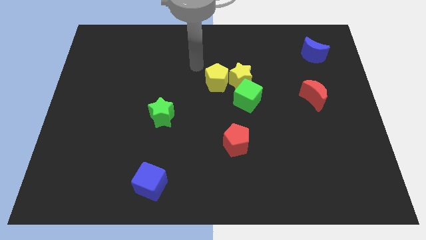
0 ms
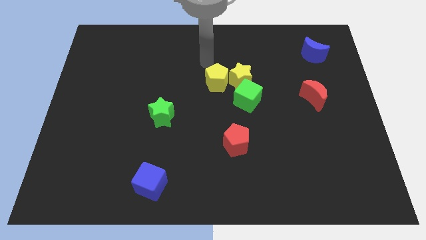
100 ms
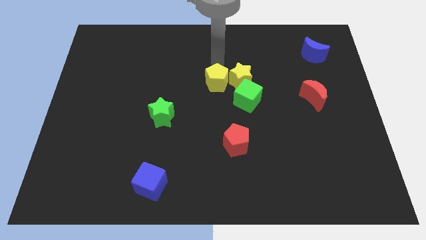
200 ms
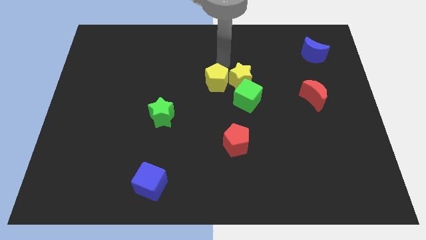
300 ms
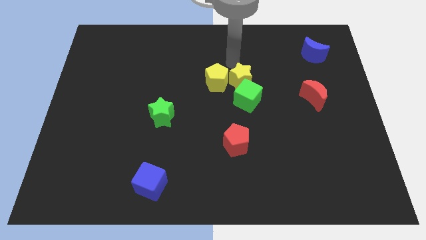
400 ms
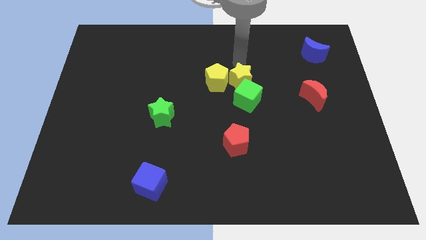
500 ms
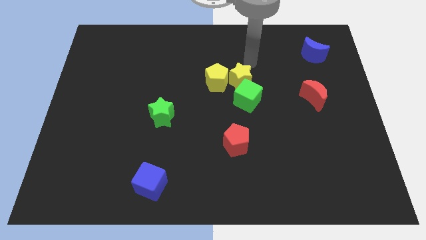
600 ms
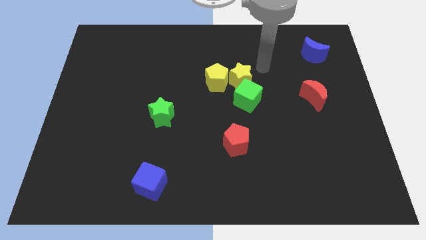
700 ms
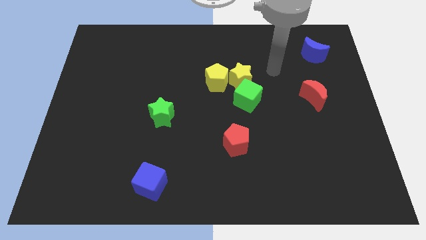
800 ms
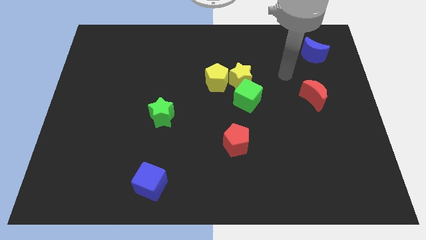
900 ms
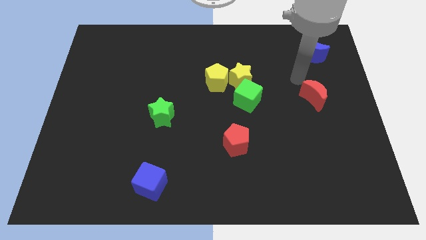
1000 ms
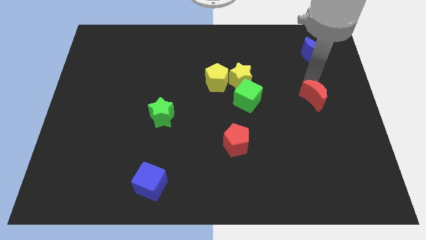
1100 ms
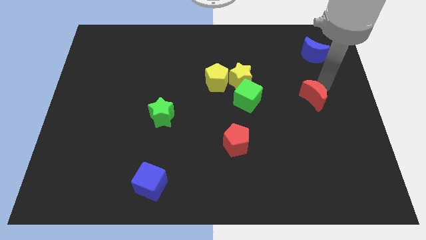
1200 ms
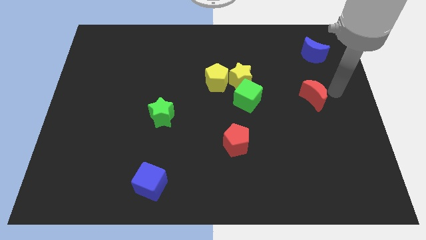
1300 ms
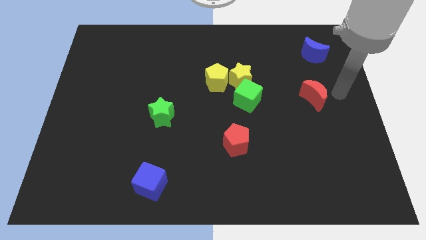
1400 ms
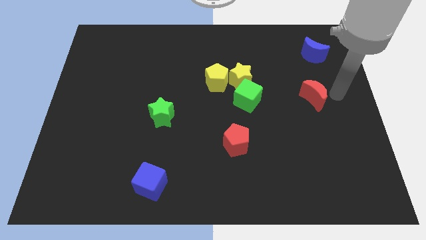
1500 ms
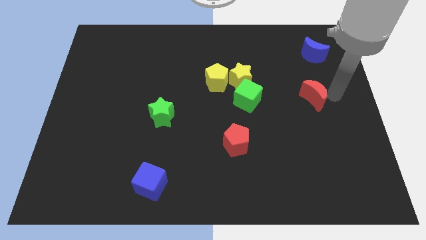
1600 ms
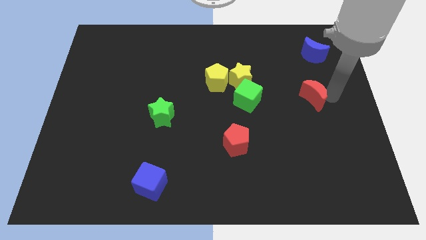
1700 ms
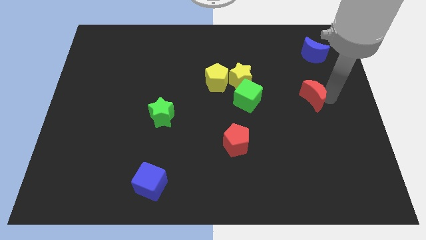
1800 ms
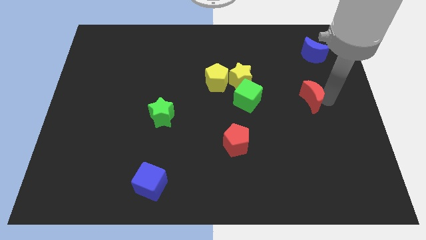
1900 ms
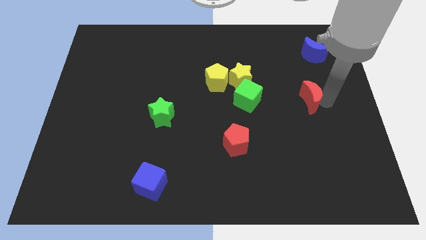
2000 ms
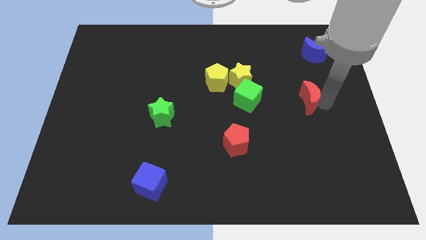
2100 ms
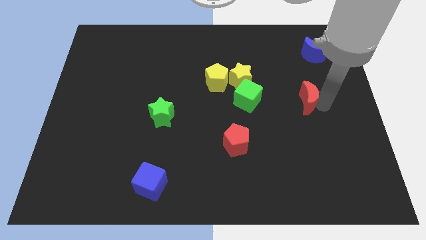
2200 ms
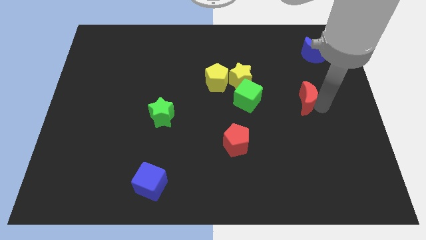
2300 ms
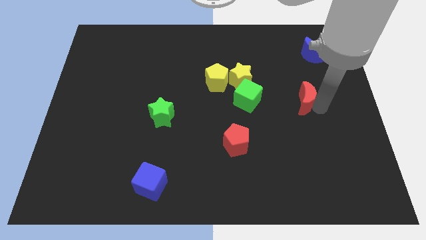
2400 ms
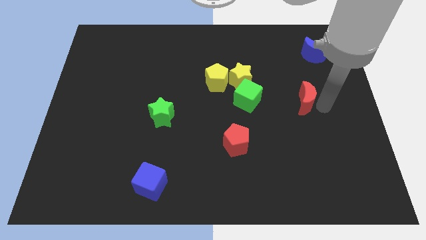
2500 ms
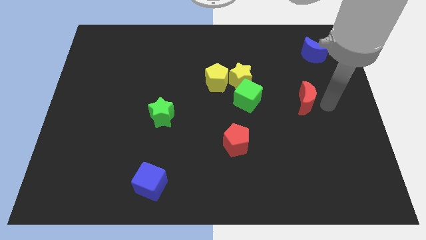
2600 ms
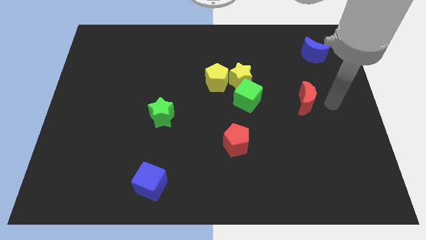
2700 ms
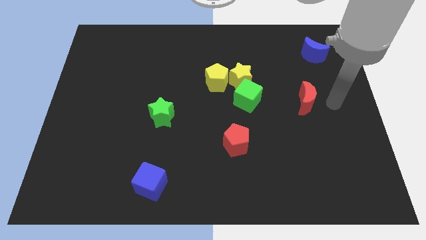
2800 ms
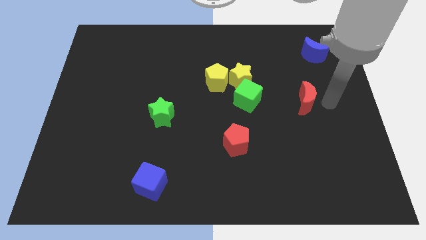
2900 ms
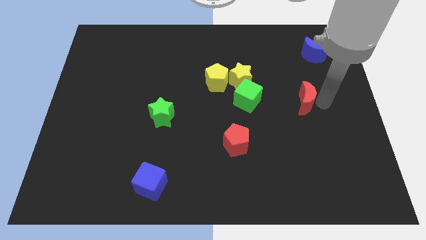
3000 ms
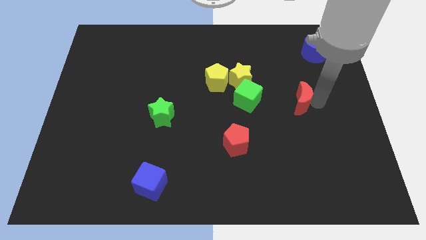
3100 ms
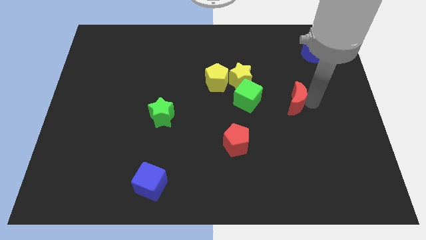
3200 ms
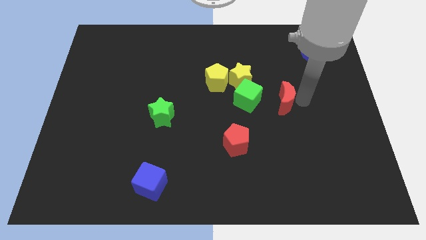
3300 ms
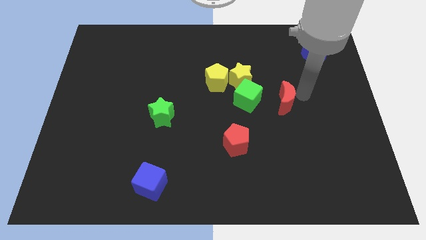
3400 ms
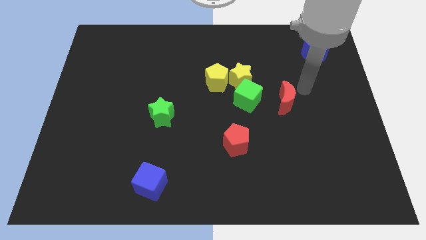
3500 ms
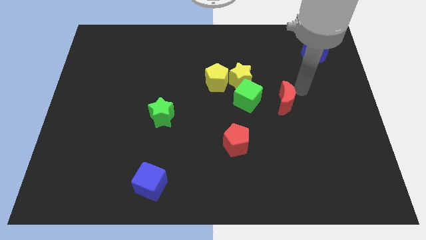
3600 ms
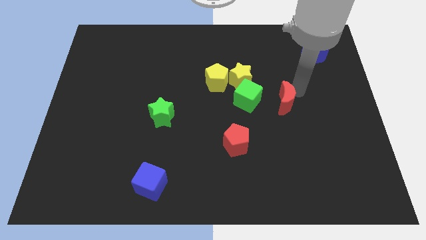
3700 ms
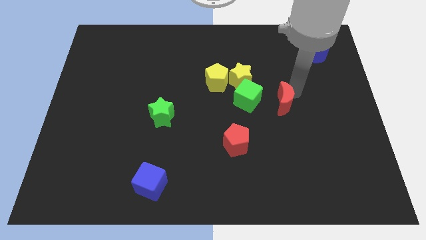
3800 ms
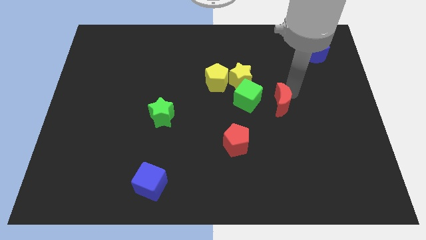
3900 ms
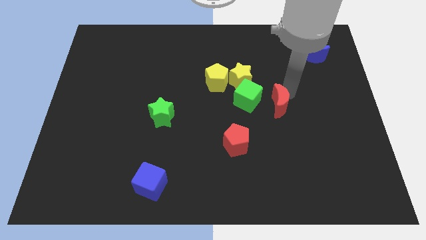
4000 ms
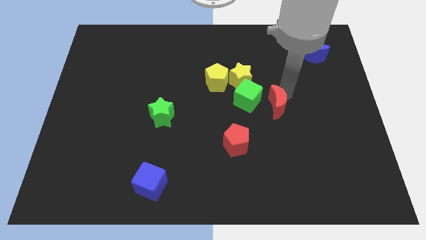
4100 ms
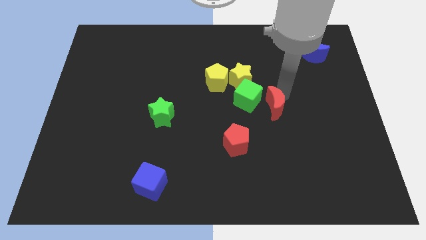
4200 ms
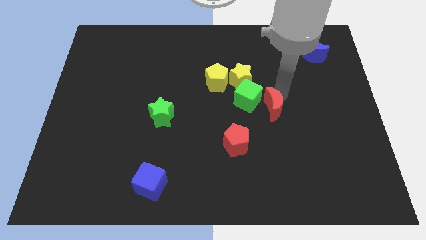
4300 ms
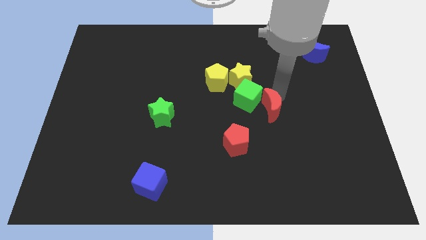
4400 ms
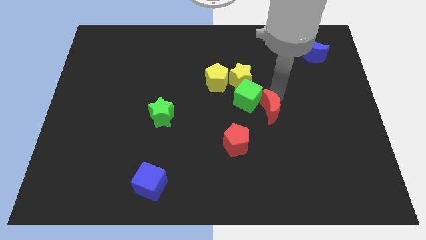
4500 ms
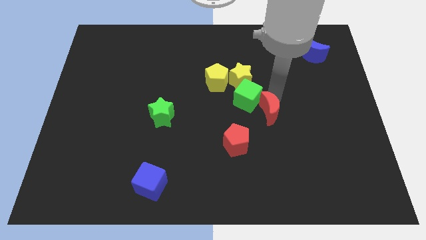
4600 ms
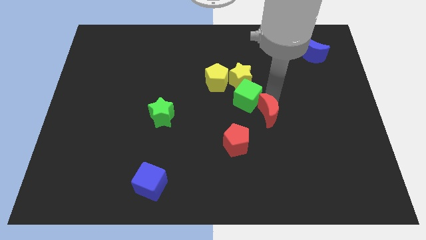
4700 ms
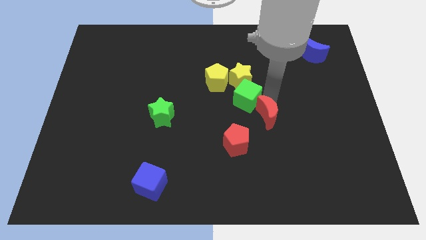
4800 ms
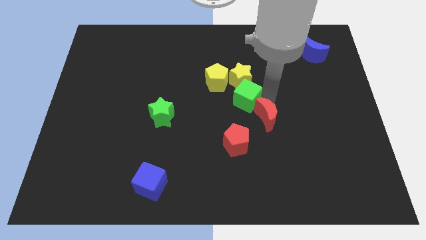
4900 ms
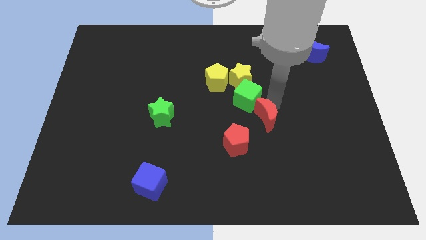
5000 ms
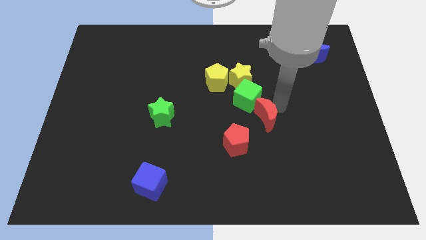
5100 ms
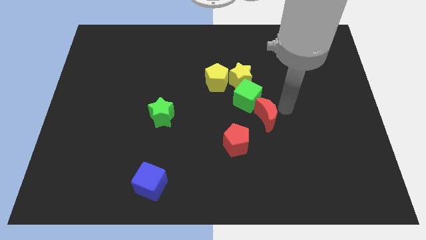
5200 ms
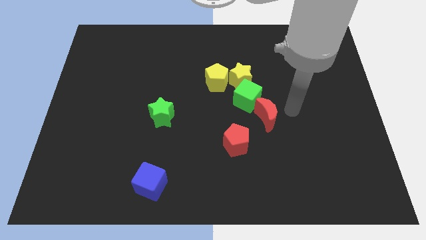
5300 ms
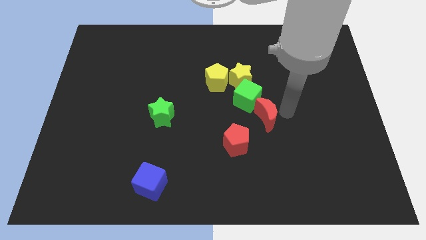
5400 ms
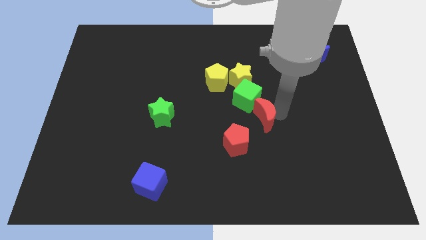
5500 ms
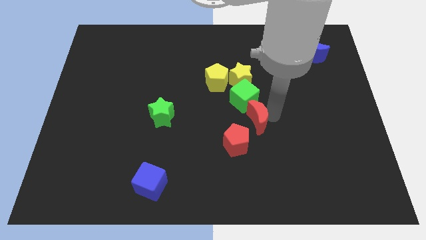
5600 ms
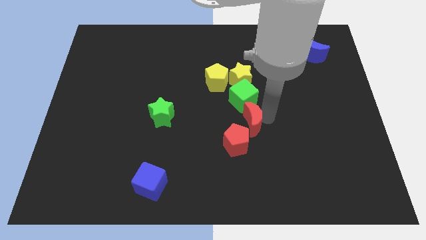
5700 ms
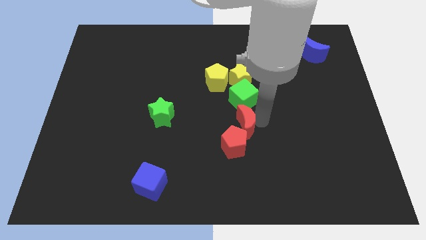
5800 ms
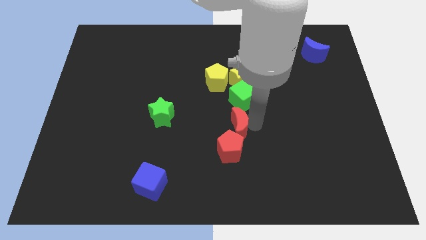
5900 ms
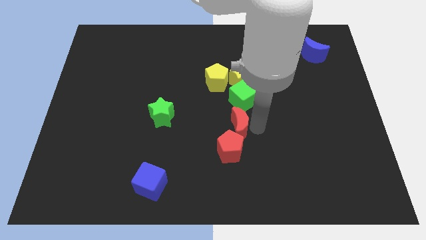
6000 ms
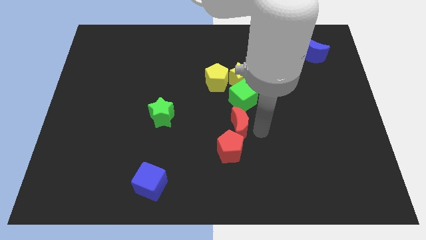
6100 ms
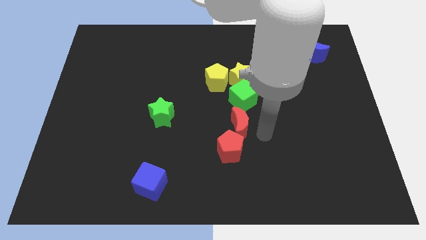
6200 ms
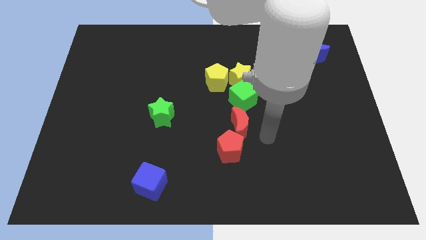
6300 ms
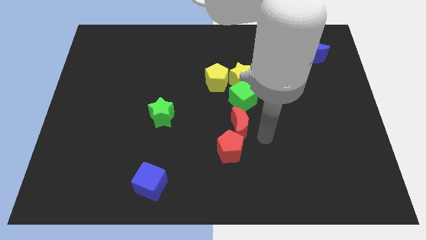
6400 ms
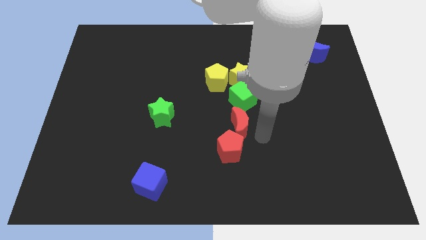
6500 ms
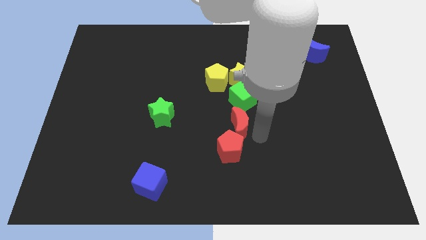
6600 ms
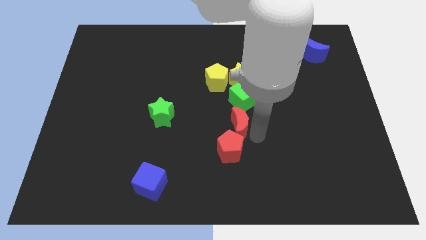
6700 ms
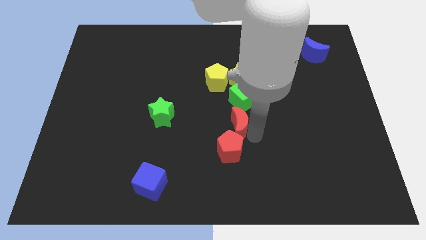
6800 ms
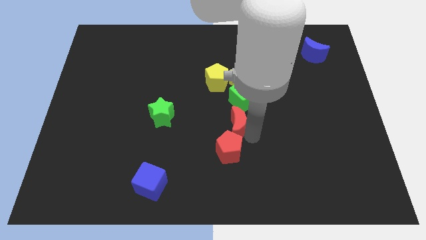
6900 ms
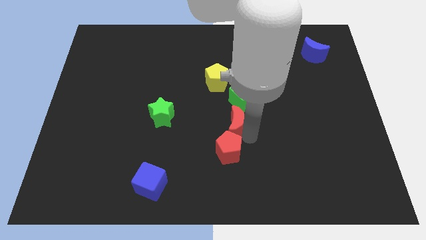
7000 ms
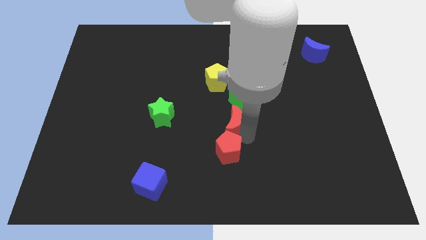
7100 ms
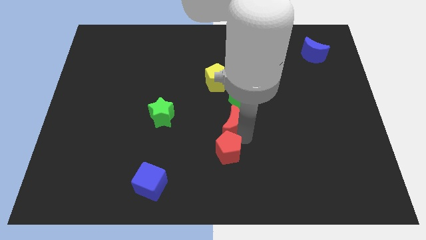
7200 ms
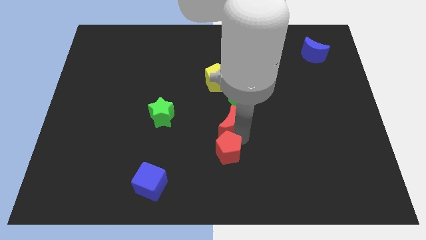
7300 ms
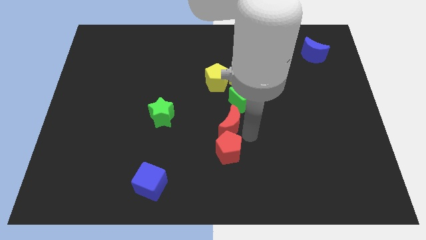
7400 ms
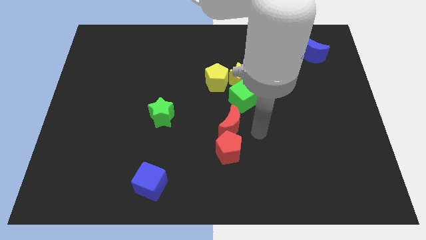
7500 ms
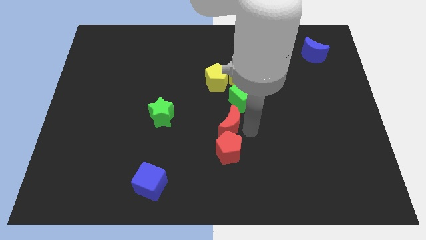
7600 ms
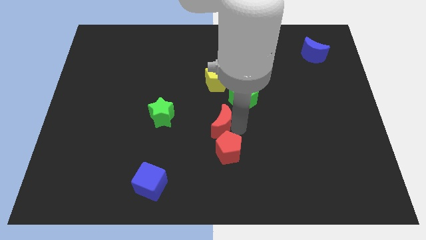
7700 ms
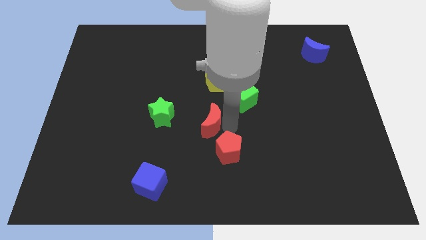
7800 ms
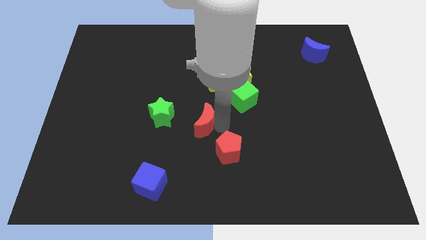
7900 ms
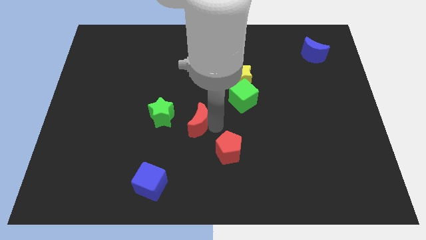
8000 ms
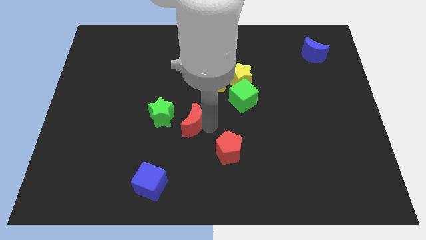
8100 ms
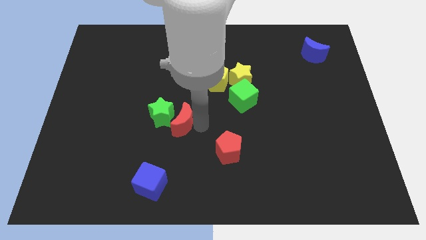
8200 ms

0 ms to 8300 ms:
put the red moon next to the green star
